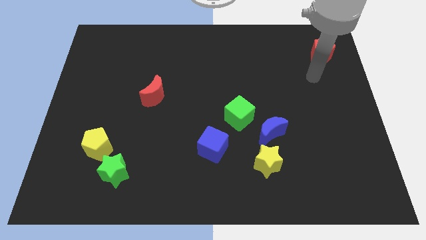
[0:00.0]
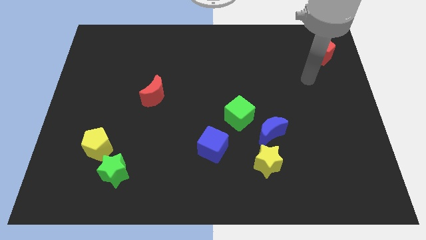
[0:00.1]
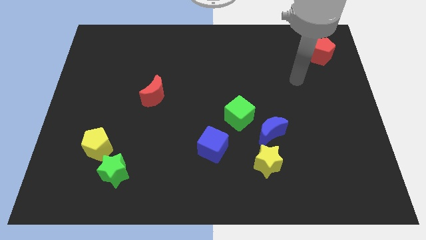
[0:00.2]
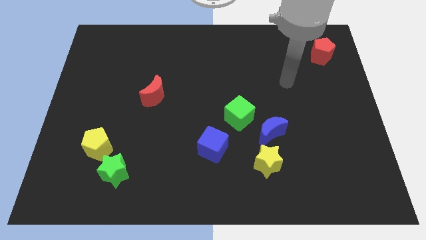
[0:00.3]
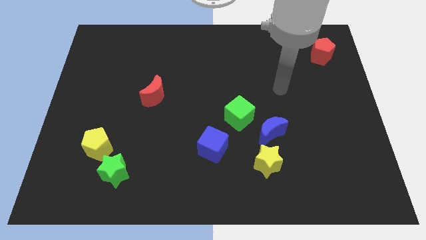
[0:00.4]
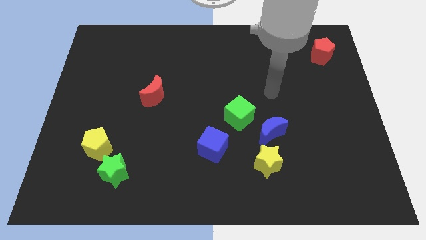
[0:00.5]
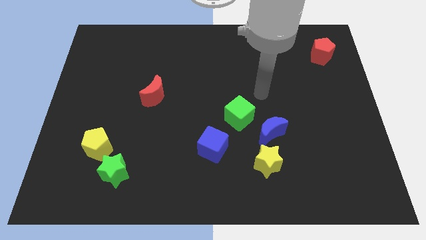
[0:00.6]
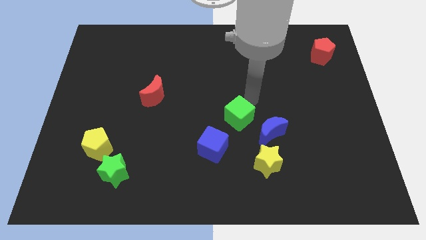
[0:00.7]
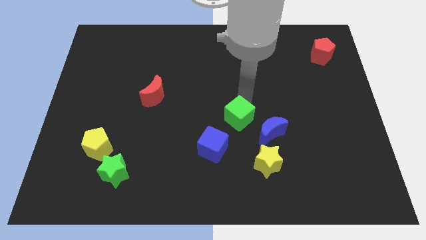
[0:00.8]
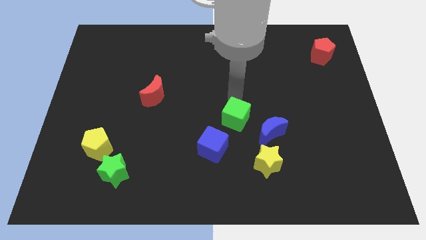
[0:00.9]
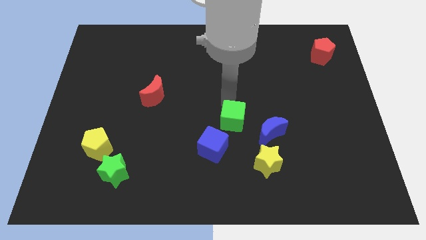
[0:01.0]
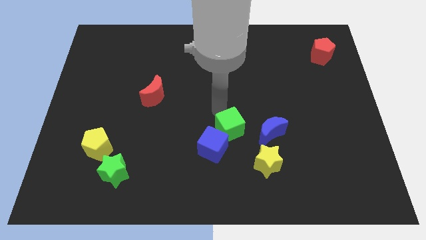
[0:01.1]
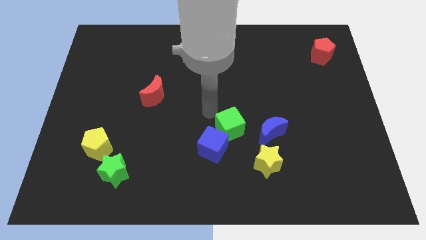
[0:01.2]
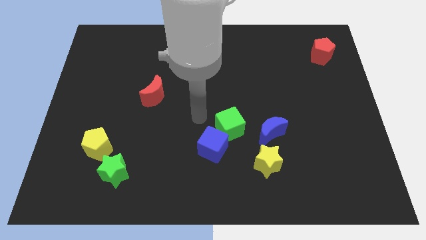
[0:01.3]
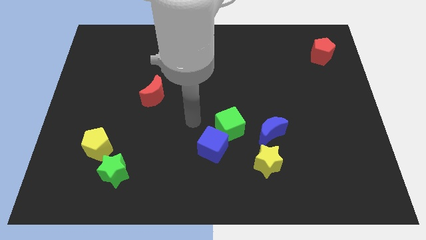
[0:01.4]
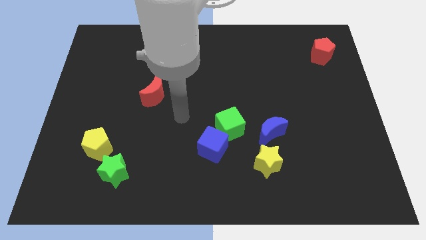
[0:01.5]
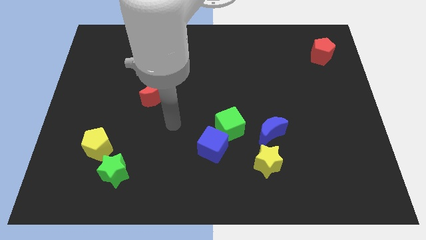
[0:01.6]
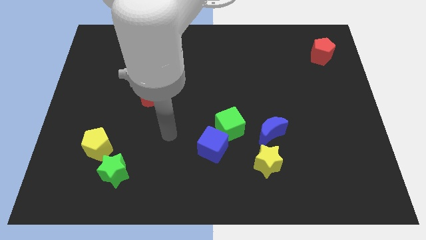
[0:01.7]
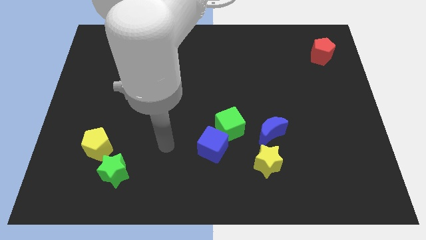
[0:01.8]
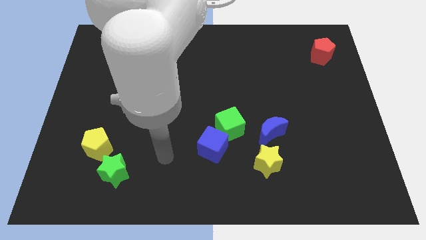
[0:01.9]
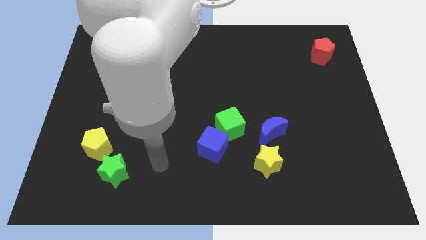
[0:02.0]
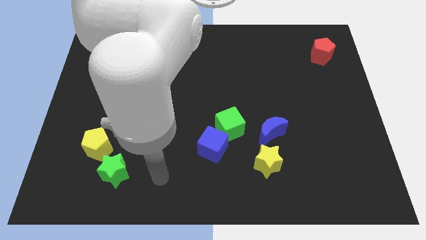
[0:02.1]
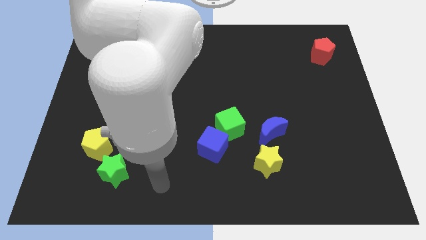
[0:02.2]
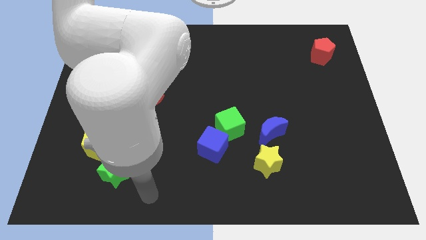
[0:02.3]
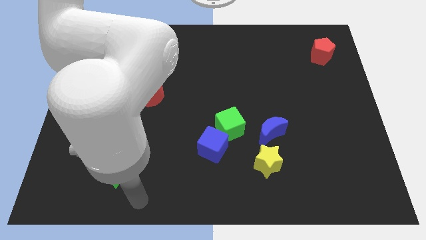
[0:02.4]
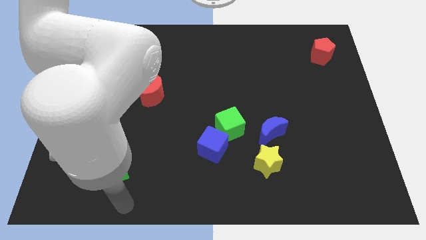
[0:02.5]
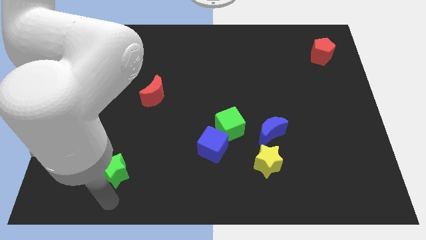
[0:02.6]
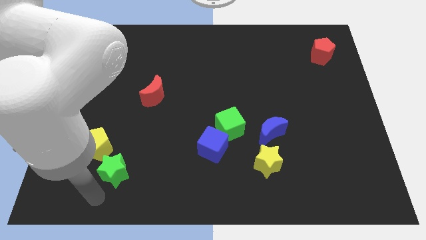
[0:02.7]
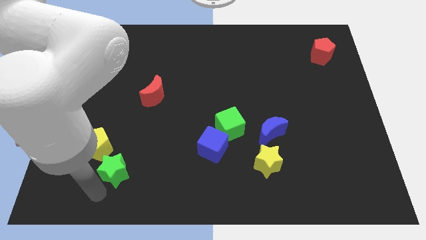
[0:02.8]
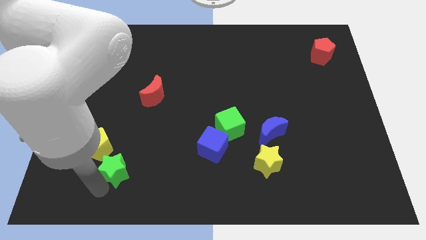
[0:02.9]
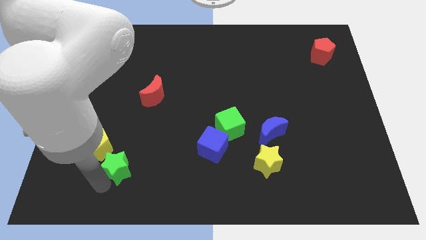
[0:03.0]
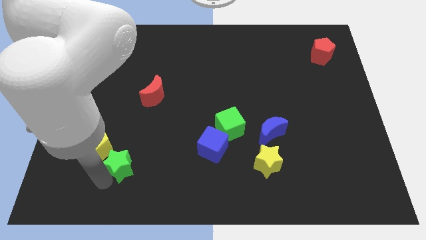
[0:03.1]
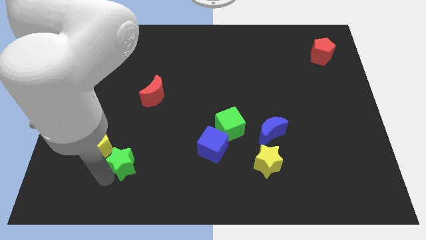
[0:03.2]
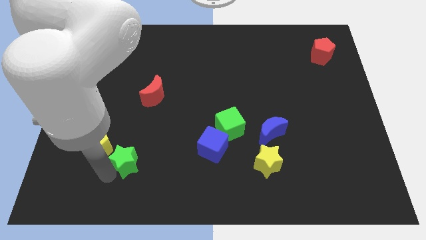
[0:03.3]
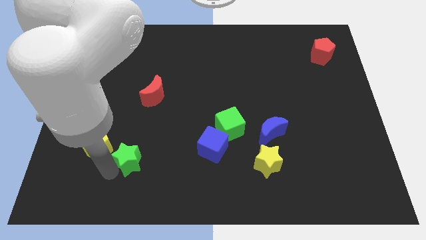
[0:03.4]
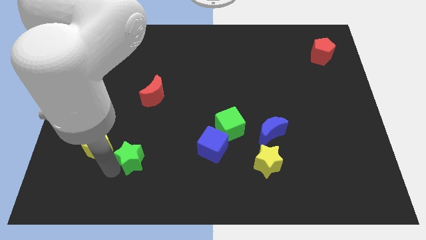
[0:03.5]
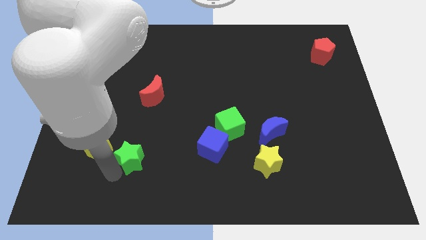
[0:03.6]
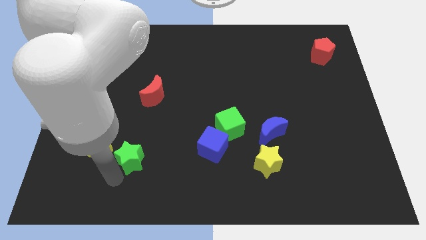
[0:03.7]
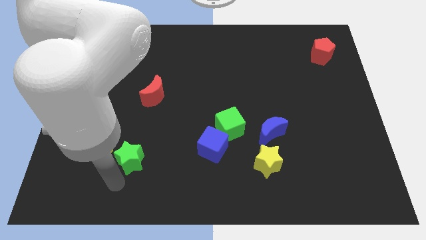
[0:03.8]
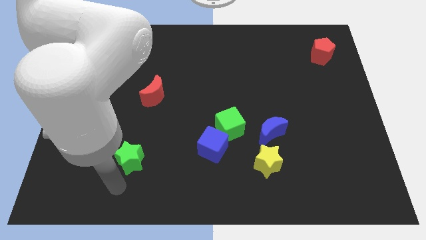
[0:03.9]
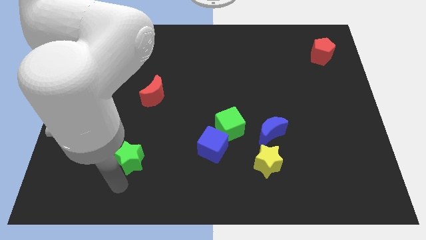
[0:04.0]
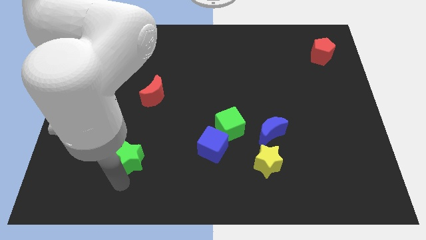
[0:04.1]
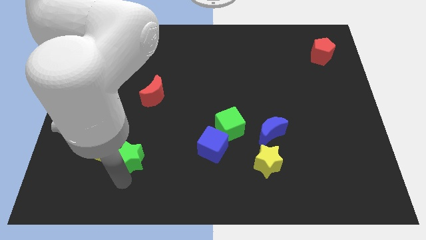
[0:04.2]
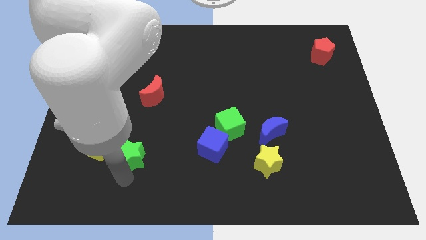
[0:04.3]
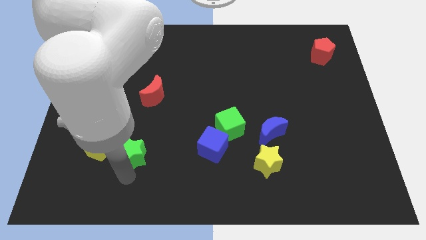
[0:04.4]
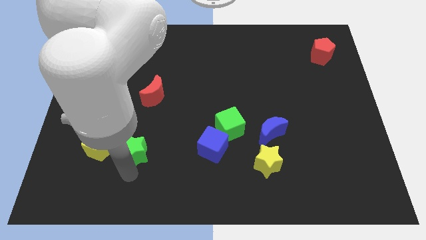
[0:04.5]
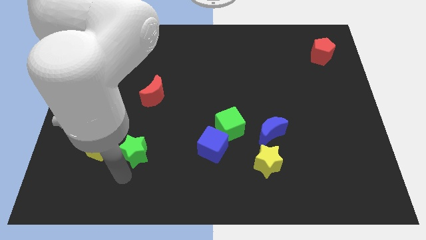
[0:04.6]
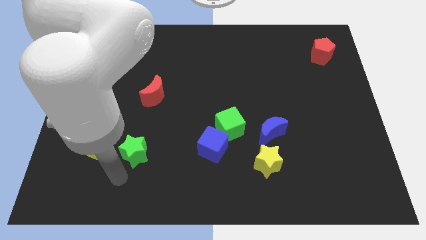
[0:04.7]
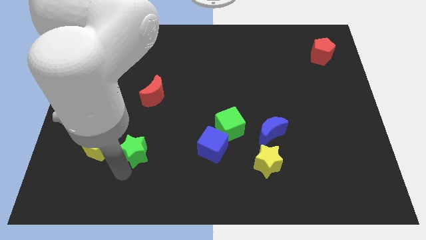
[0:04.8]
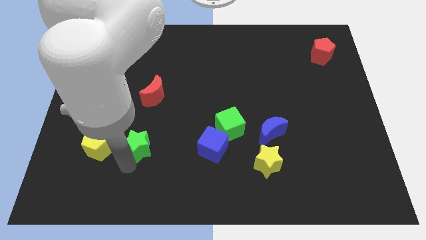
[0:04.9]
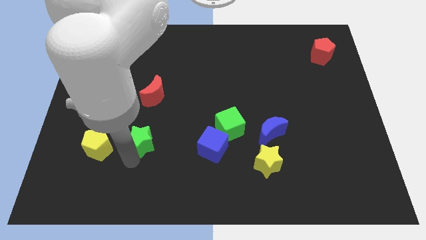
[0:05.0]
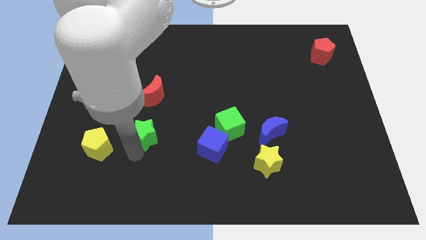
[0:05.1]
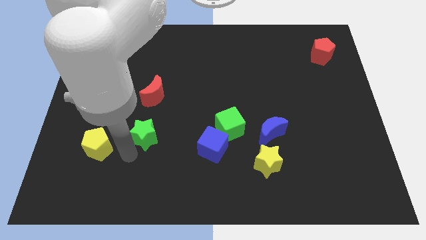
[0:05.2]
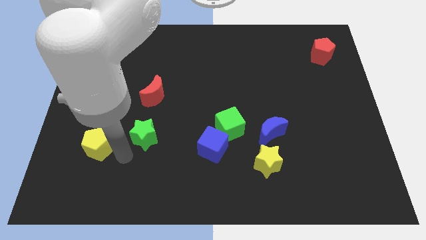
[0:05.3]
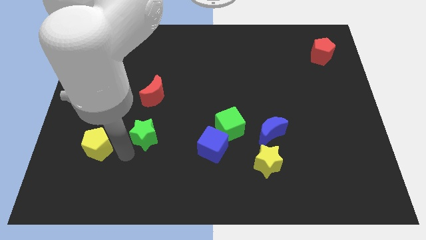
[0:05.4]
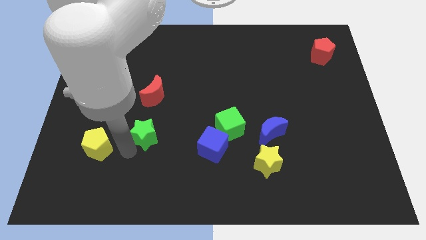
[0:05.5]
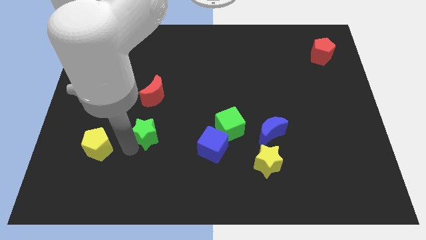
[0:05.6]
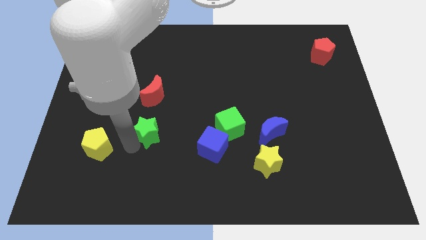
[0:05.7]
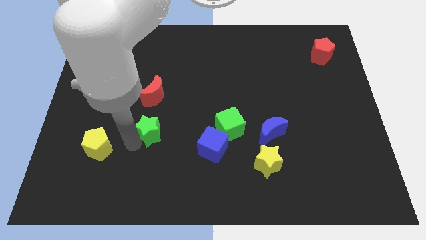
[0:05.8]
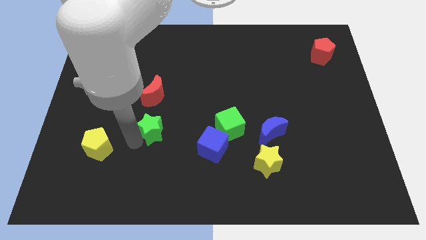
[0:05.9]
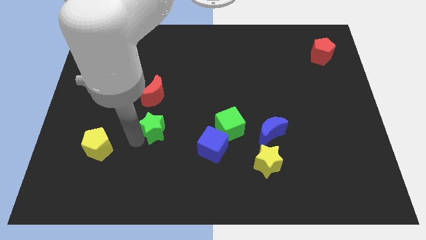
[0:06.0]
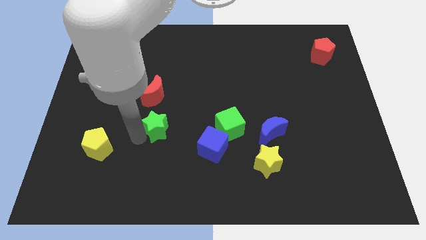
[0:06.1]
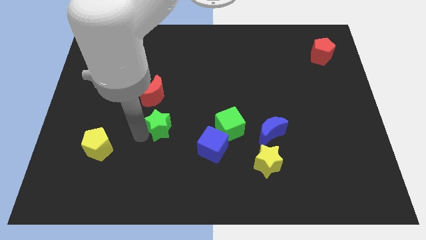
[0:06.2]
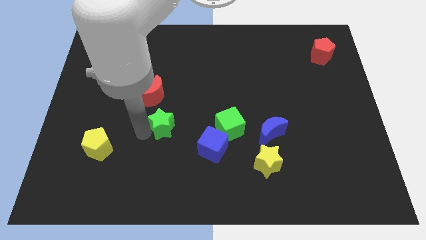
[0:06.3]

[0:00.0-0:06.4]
push the green star diagonally down and to the right of the red moon

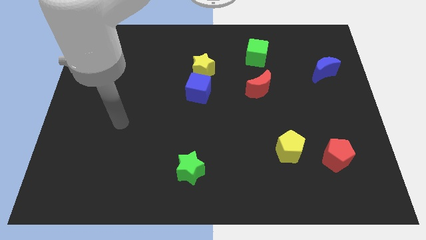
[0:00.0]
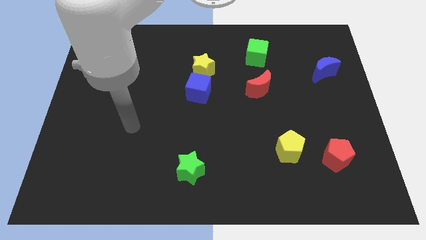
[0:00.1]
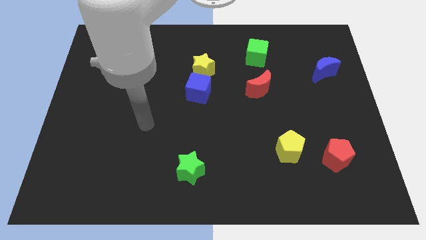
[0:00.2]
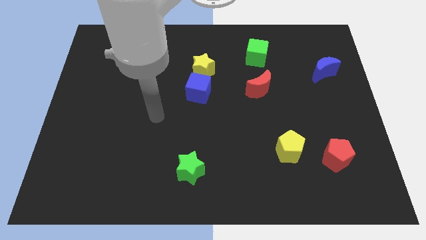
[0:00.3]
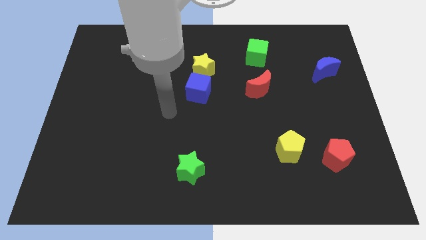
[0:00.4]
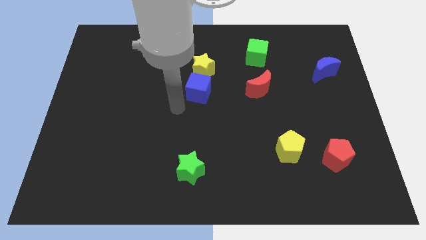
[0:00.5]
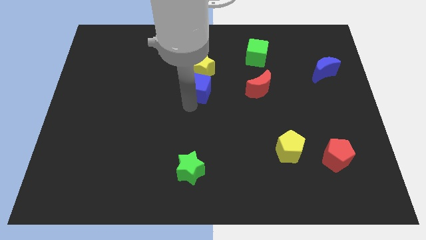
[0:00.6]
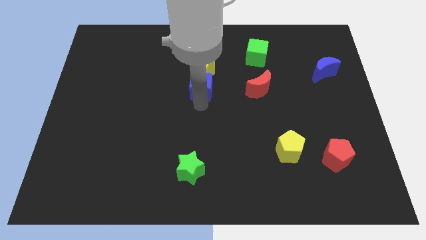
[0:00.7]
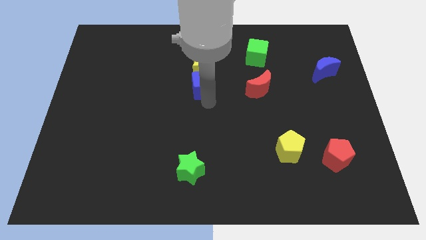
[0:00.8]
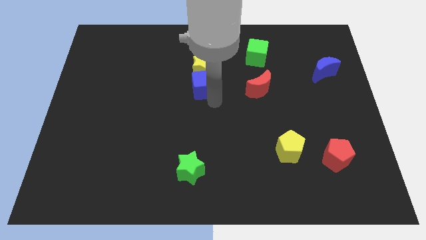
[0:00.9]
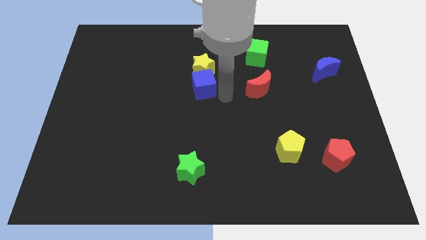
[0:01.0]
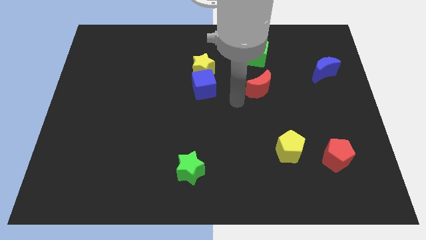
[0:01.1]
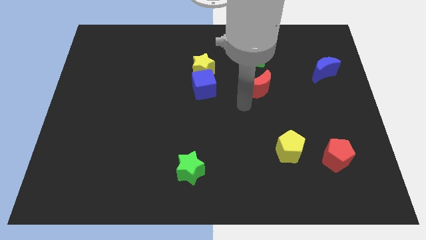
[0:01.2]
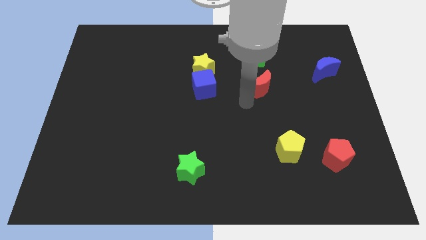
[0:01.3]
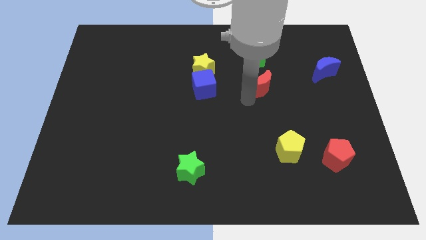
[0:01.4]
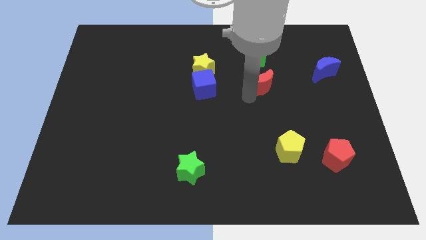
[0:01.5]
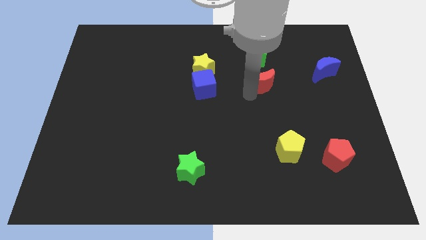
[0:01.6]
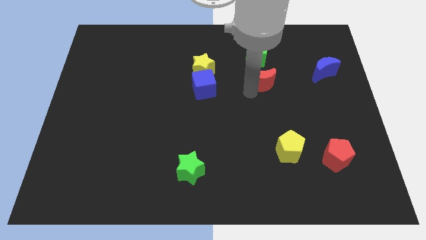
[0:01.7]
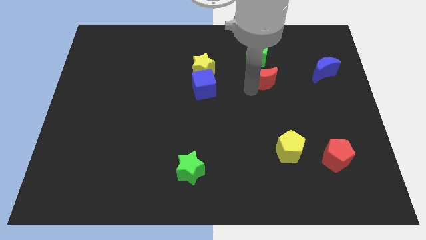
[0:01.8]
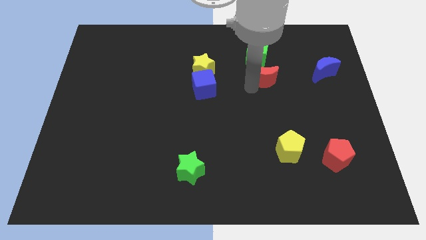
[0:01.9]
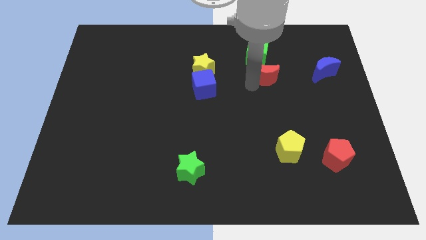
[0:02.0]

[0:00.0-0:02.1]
move the red moon to the bottom right of the green cube

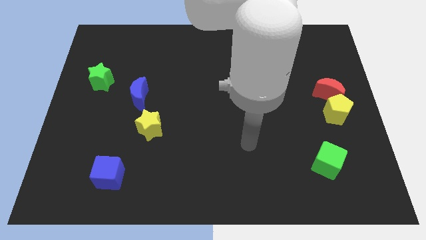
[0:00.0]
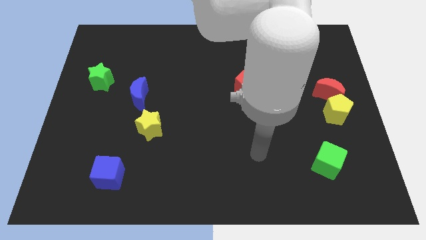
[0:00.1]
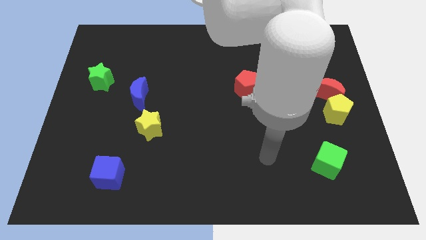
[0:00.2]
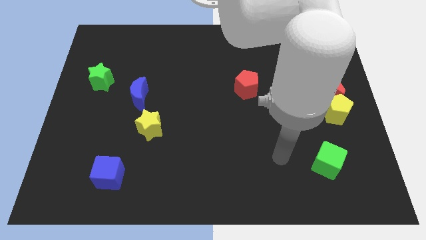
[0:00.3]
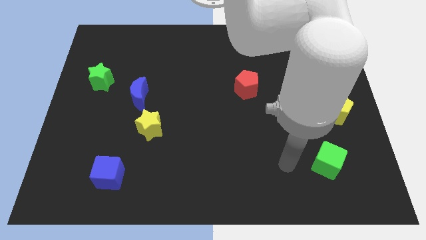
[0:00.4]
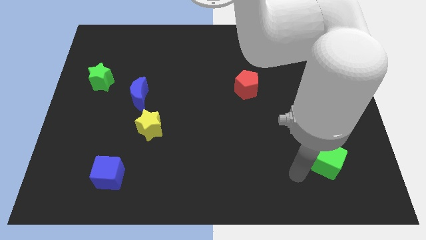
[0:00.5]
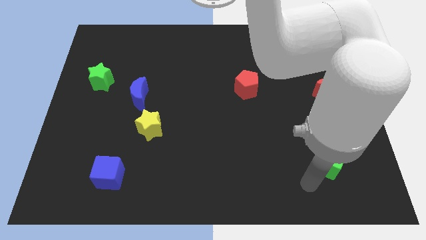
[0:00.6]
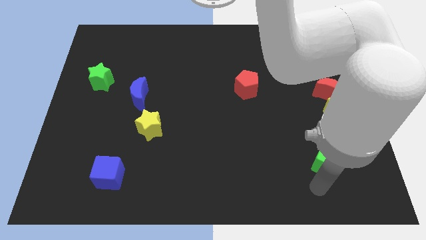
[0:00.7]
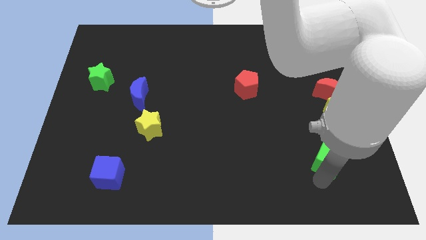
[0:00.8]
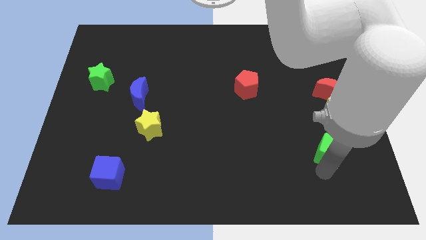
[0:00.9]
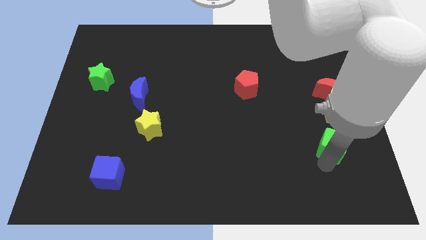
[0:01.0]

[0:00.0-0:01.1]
put the green cube to the bottom side of the red moon
